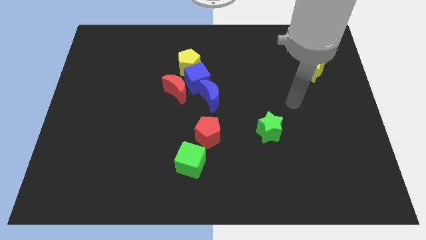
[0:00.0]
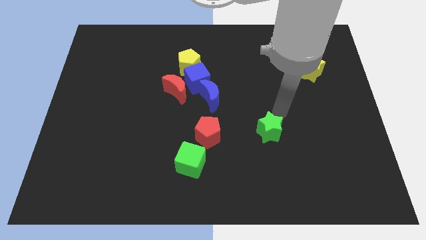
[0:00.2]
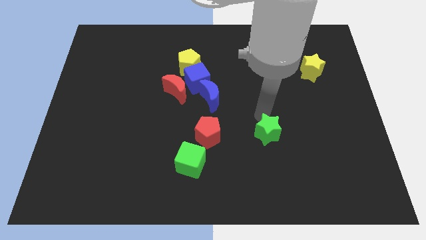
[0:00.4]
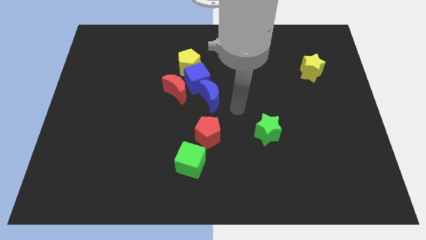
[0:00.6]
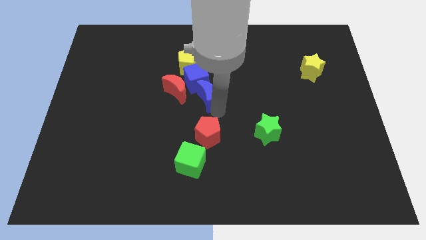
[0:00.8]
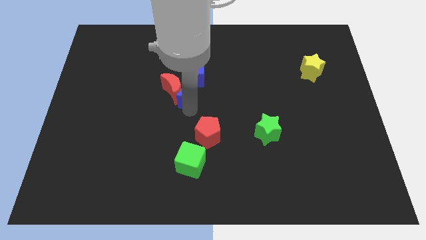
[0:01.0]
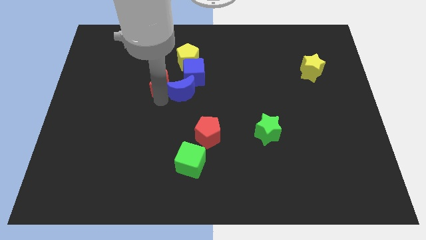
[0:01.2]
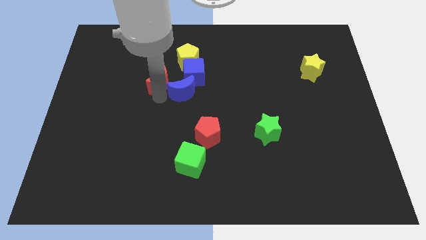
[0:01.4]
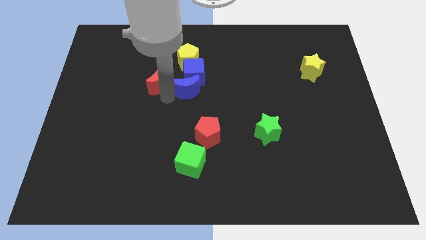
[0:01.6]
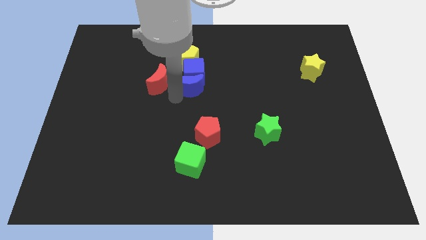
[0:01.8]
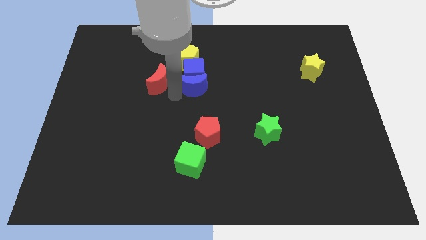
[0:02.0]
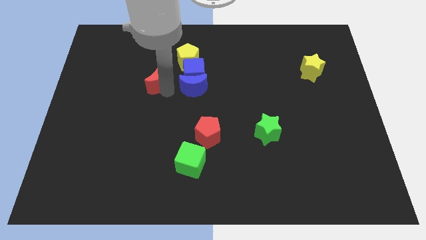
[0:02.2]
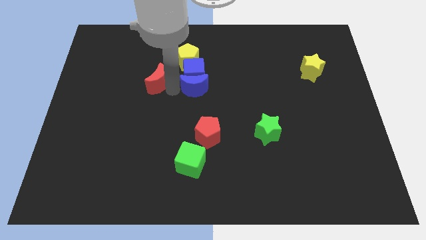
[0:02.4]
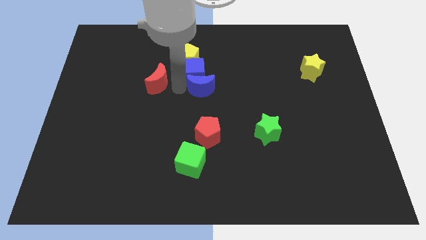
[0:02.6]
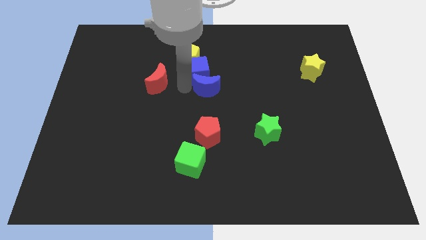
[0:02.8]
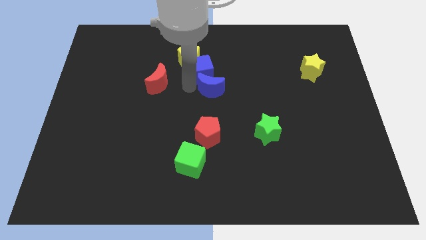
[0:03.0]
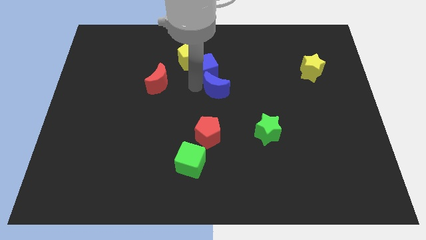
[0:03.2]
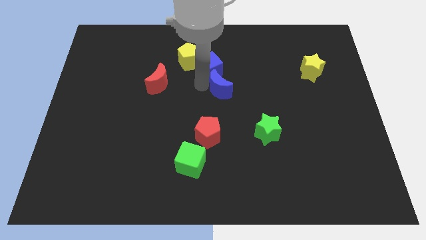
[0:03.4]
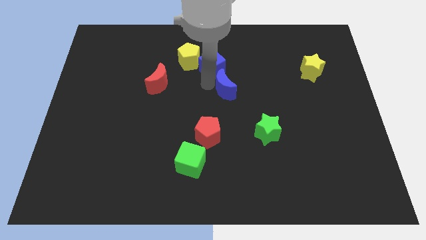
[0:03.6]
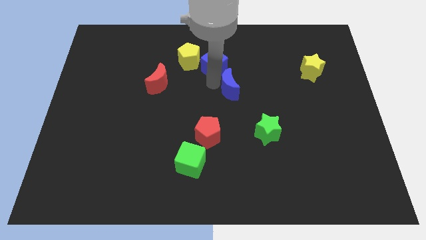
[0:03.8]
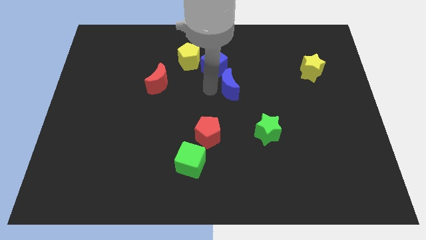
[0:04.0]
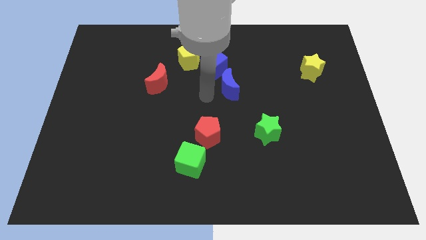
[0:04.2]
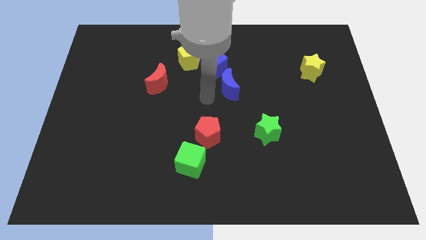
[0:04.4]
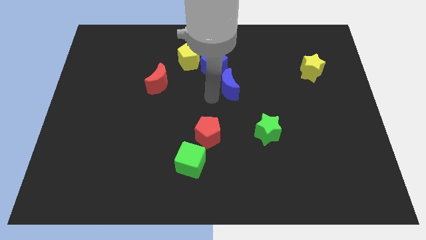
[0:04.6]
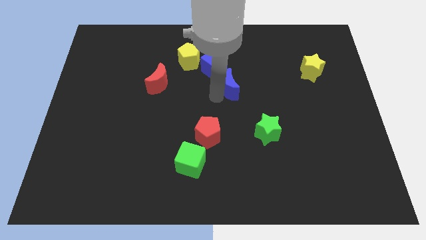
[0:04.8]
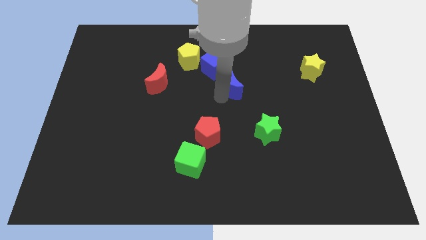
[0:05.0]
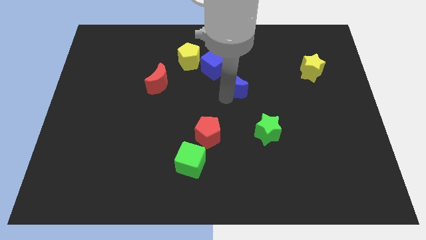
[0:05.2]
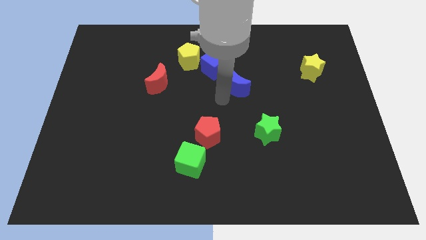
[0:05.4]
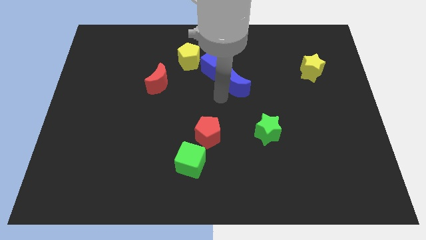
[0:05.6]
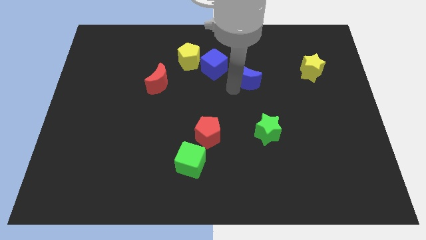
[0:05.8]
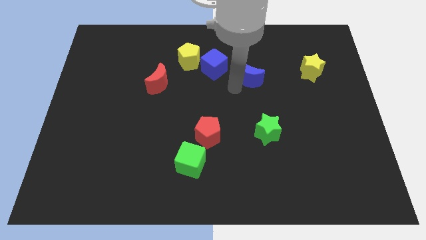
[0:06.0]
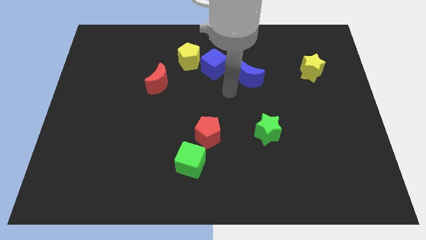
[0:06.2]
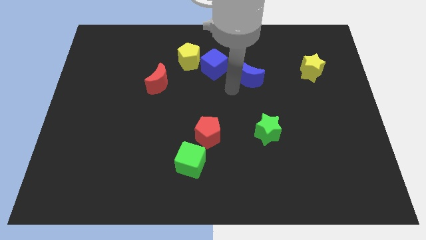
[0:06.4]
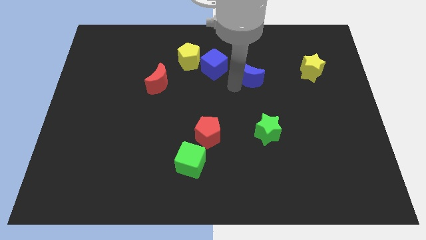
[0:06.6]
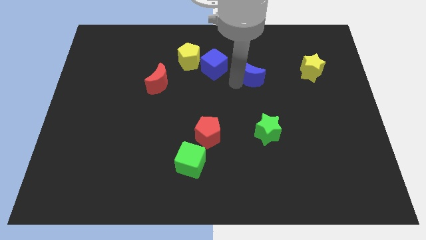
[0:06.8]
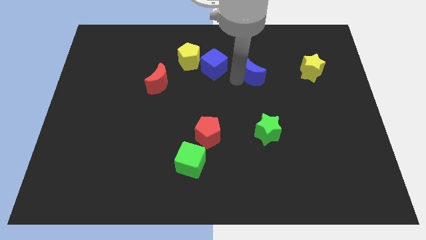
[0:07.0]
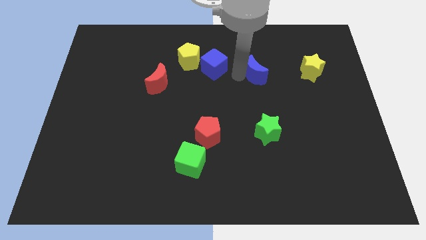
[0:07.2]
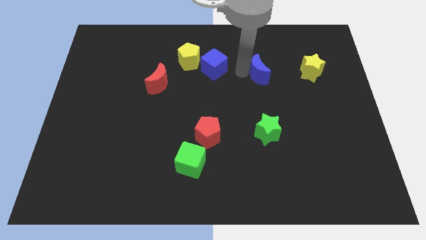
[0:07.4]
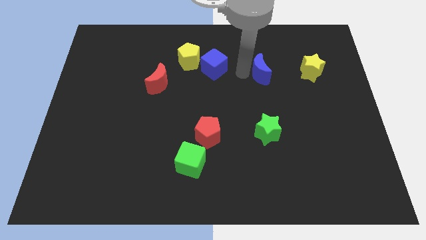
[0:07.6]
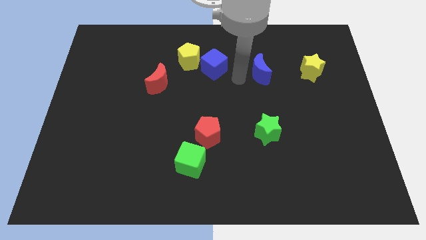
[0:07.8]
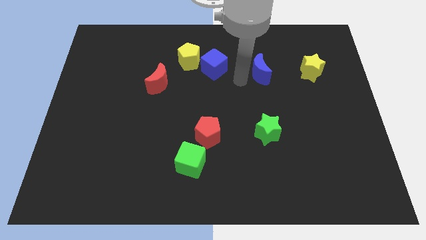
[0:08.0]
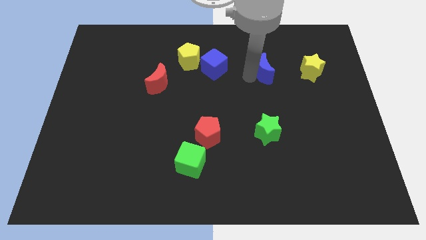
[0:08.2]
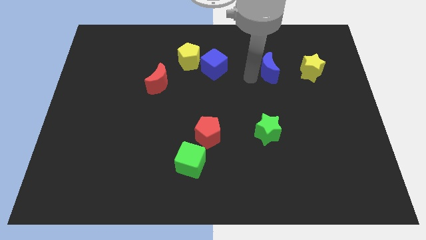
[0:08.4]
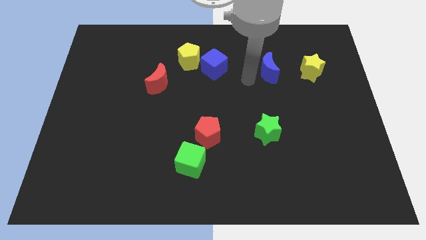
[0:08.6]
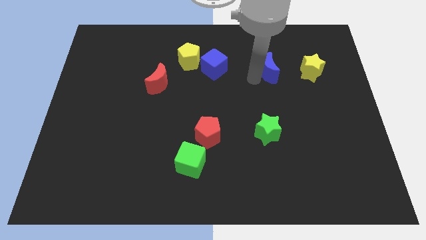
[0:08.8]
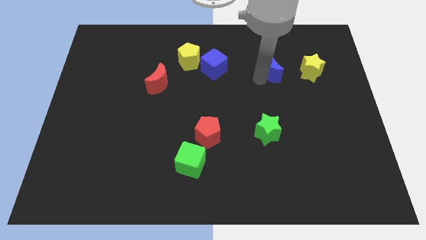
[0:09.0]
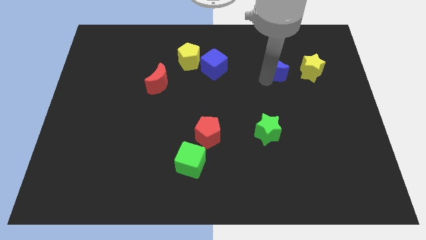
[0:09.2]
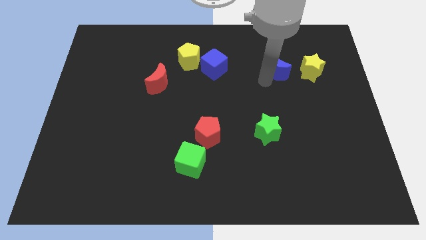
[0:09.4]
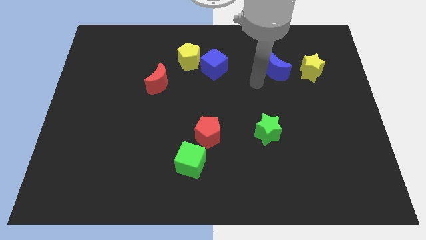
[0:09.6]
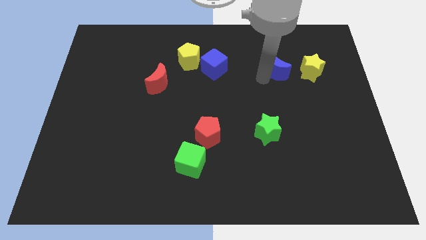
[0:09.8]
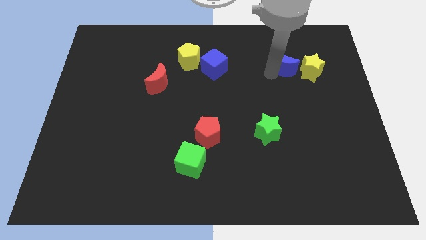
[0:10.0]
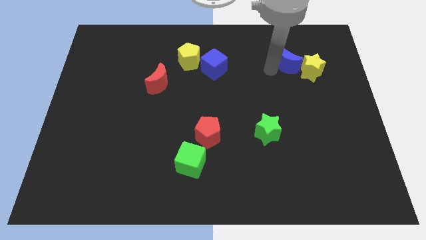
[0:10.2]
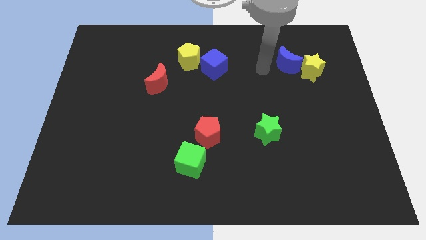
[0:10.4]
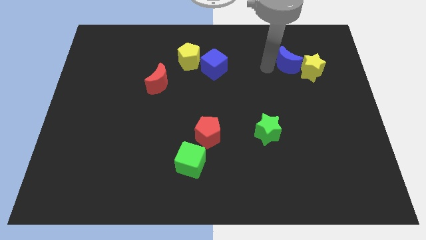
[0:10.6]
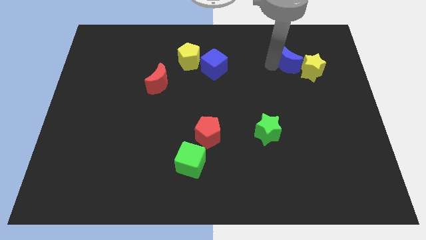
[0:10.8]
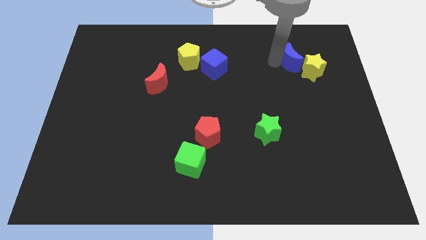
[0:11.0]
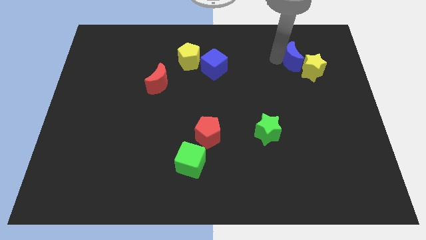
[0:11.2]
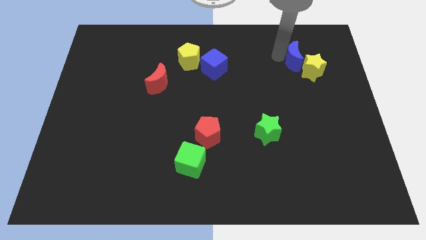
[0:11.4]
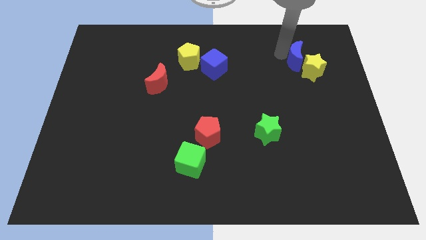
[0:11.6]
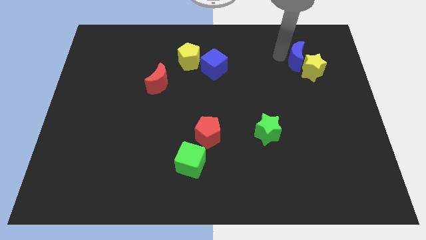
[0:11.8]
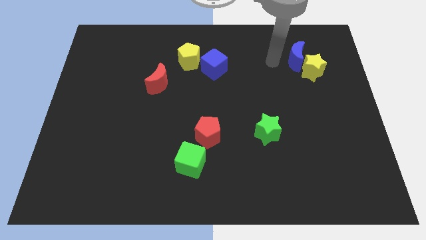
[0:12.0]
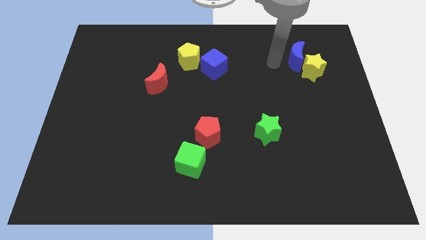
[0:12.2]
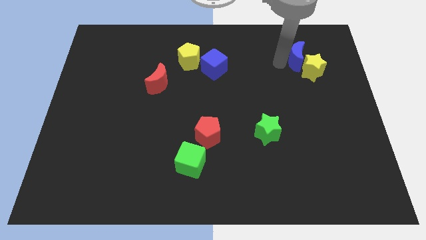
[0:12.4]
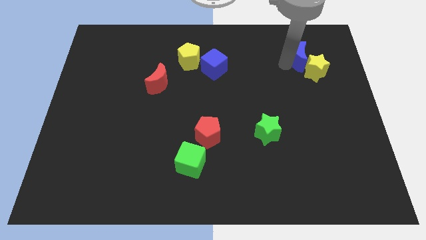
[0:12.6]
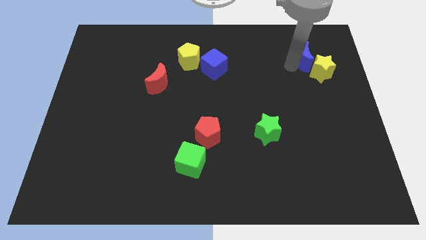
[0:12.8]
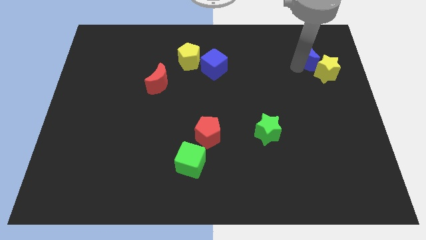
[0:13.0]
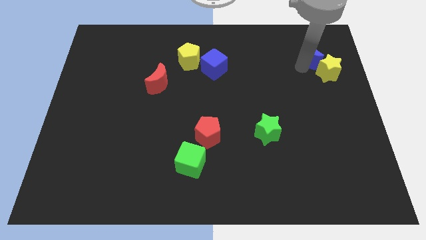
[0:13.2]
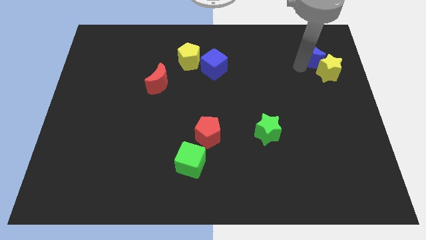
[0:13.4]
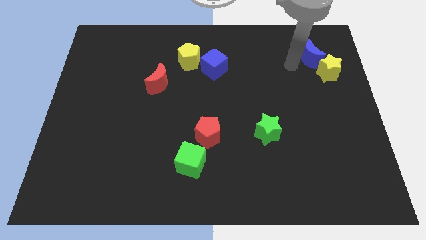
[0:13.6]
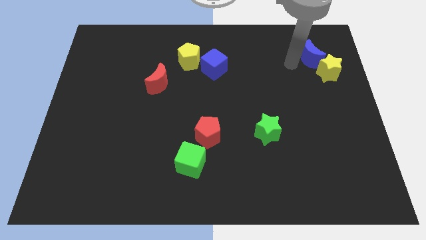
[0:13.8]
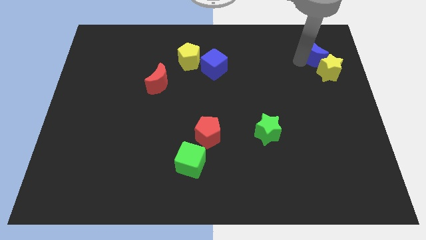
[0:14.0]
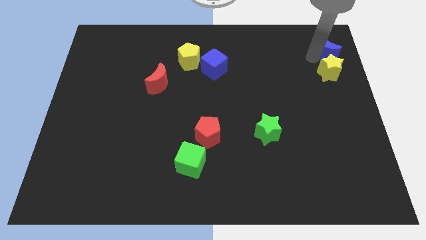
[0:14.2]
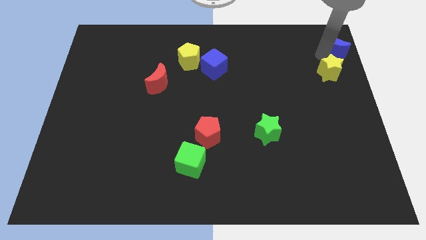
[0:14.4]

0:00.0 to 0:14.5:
slide the blue moon to the top right corner
